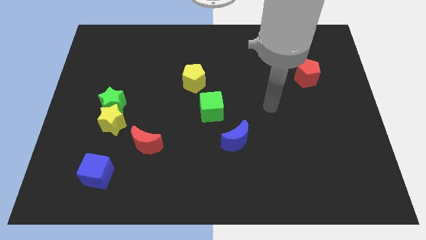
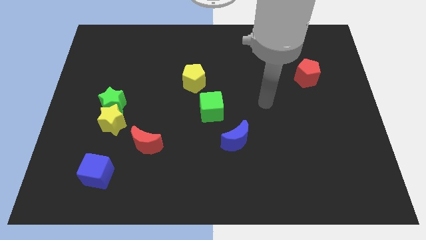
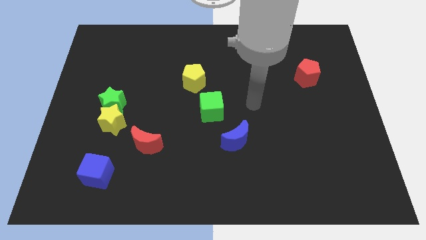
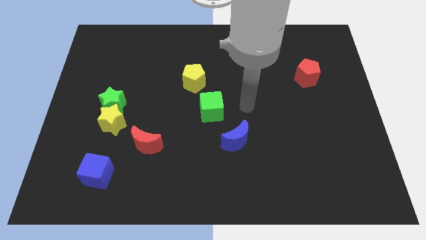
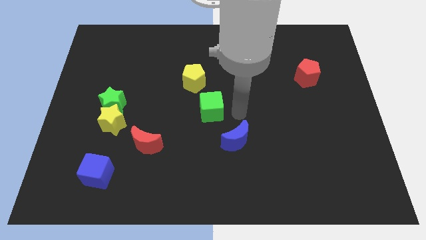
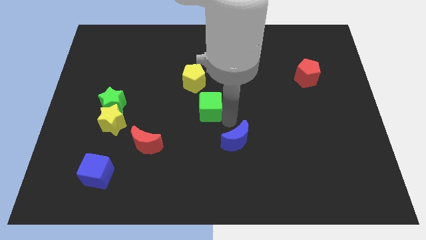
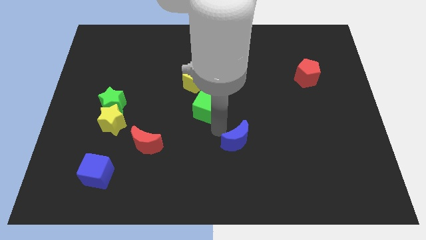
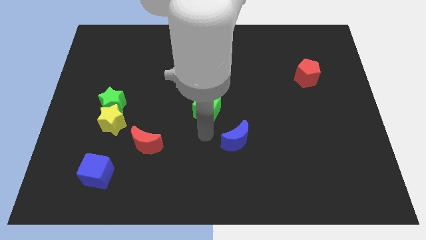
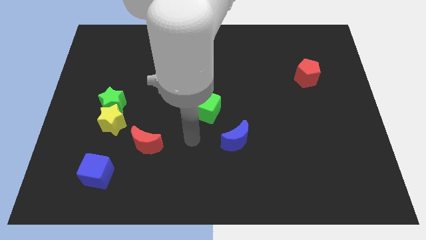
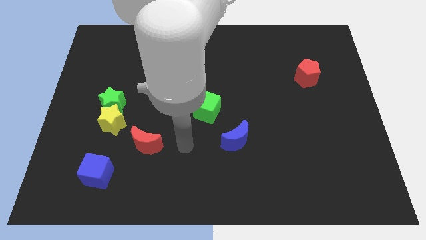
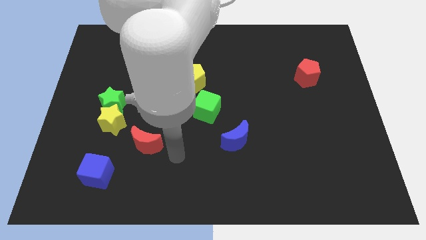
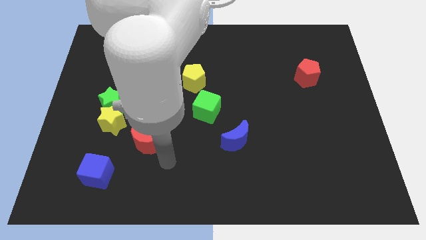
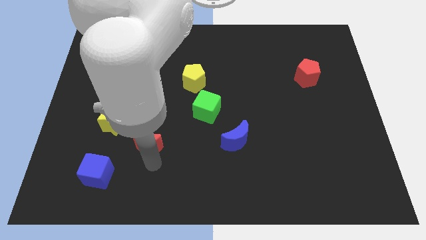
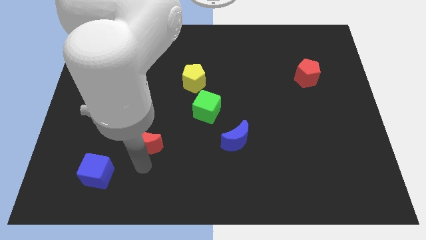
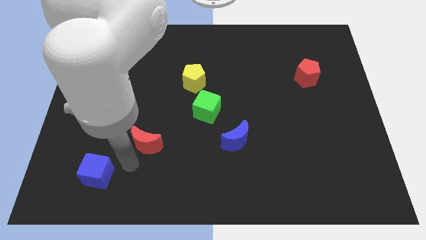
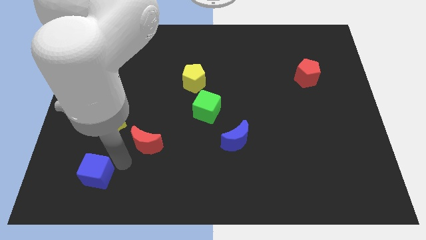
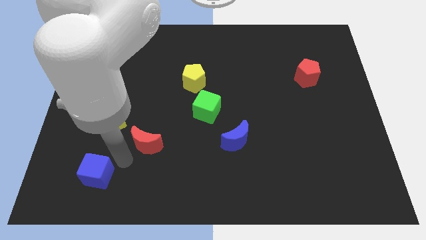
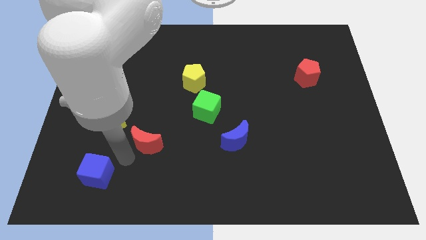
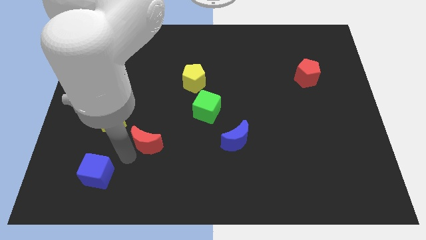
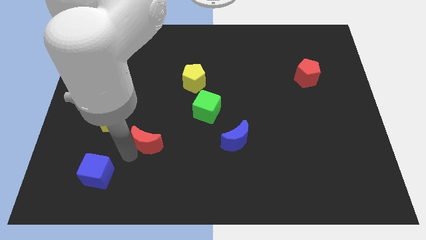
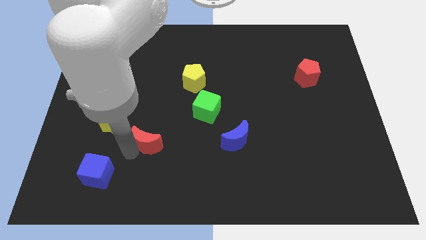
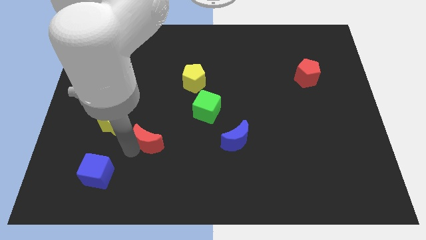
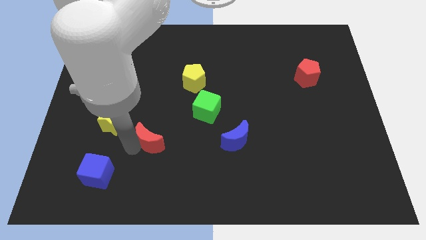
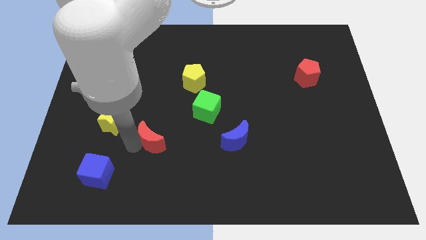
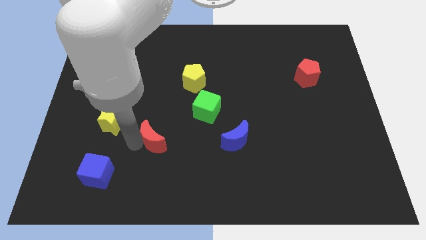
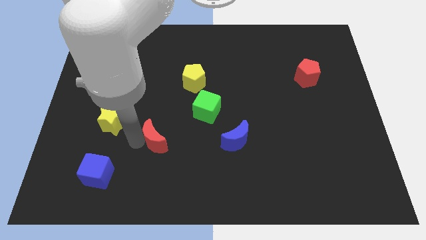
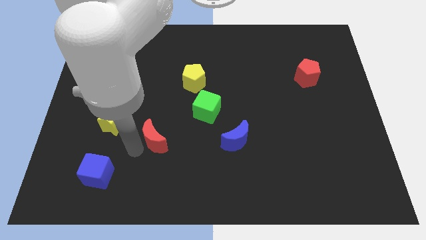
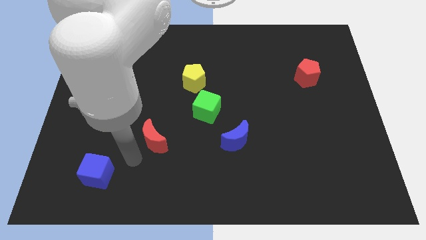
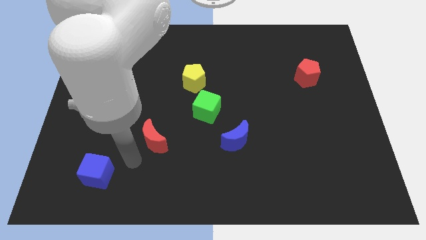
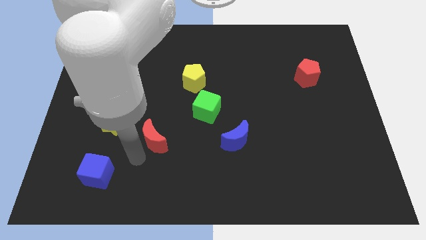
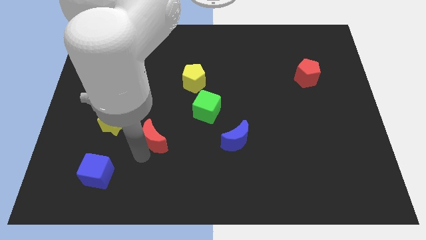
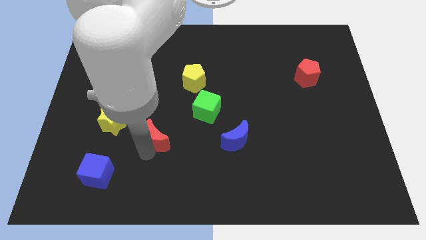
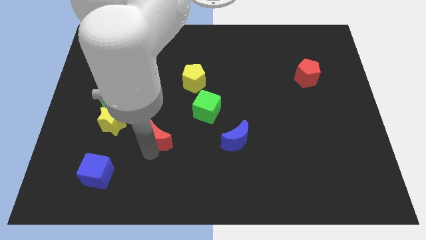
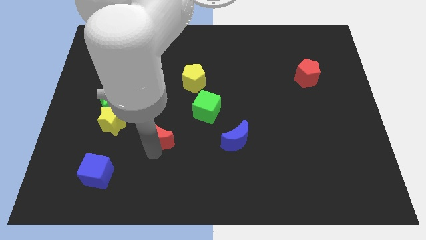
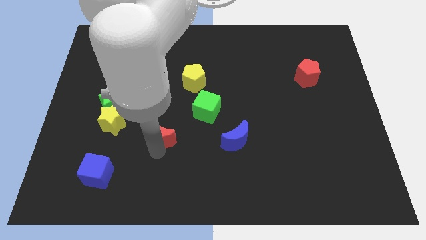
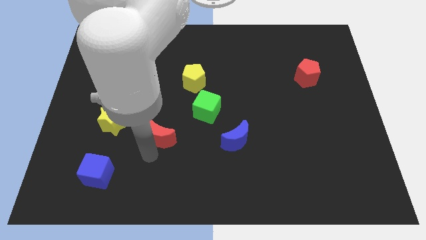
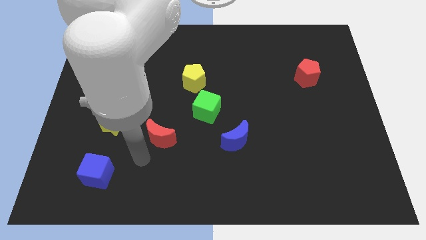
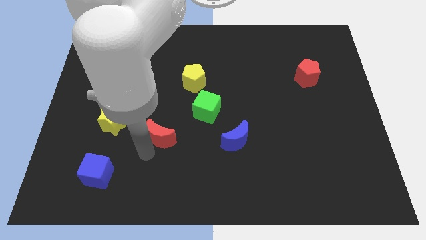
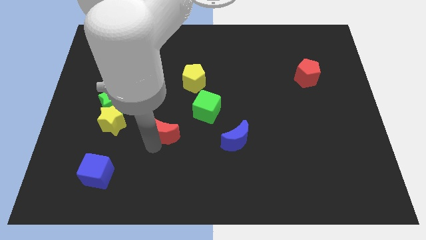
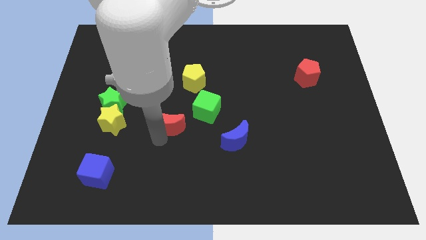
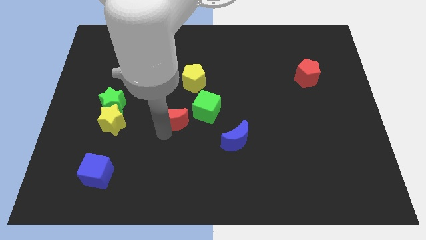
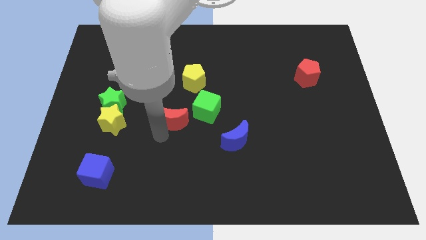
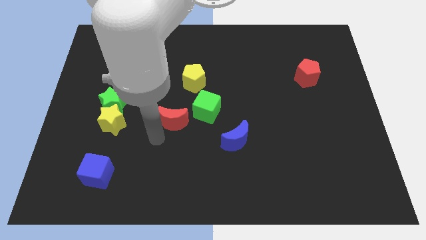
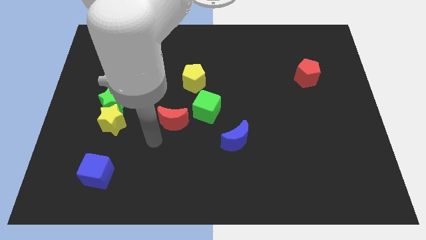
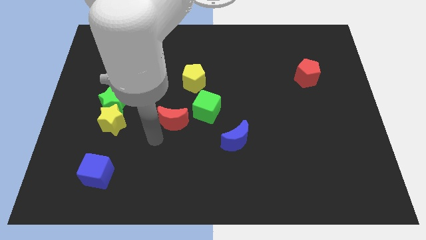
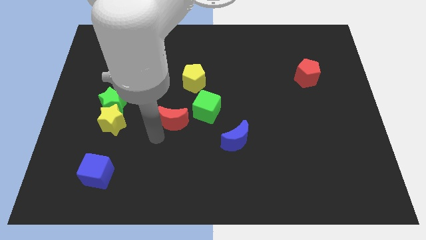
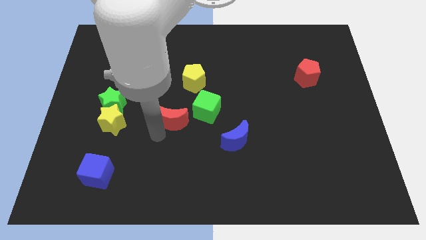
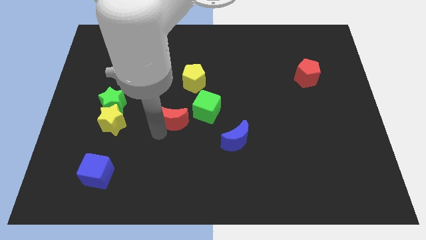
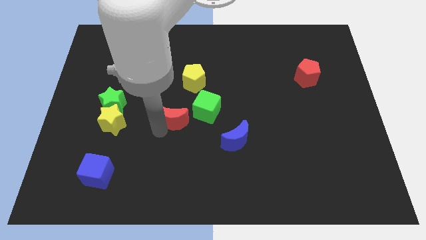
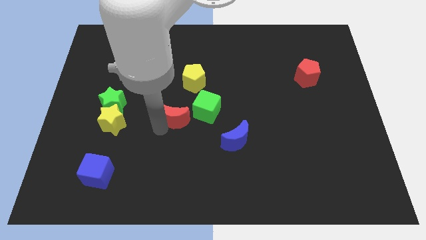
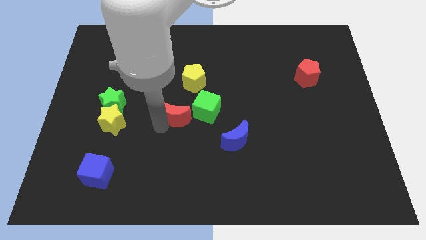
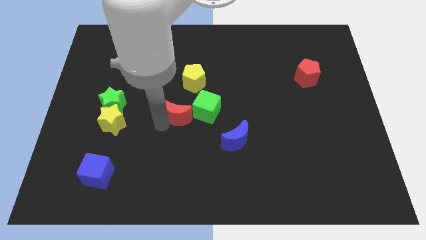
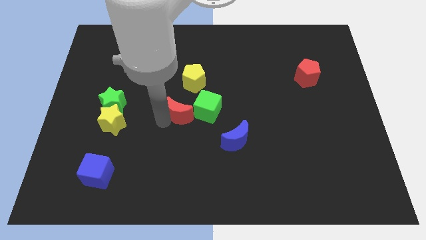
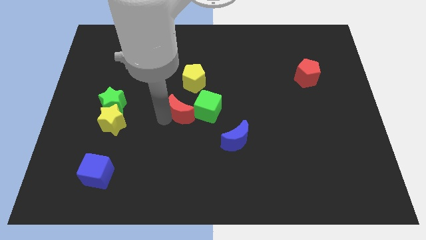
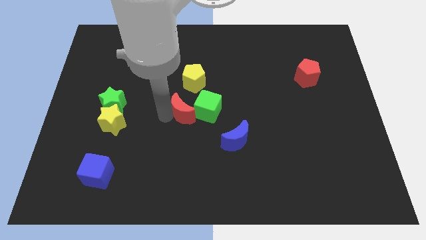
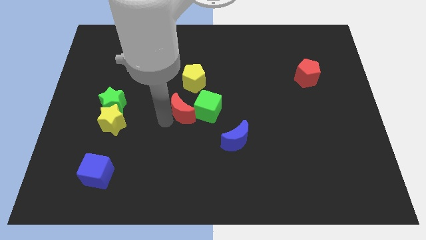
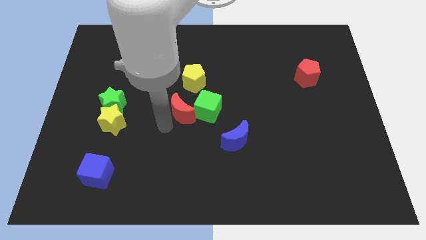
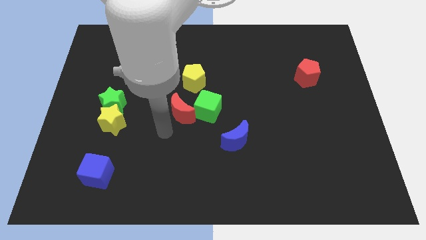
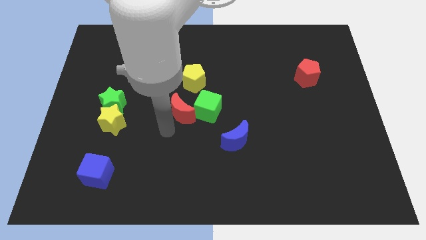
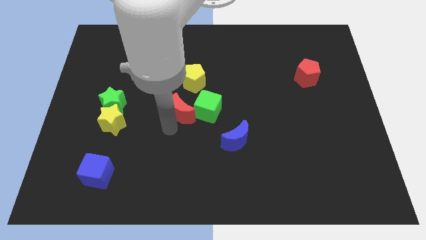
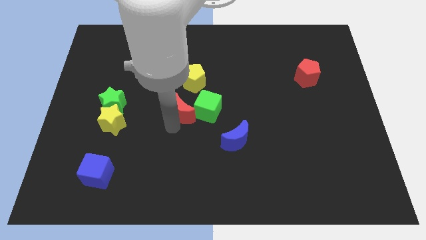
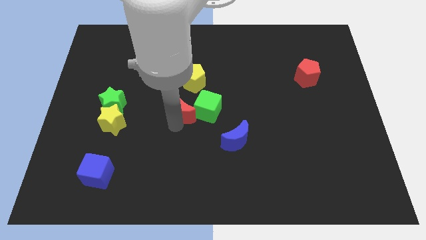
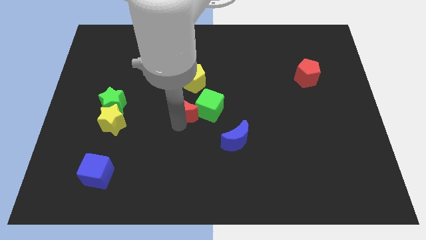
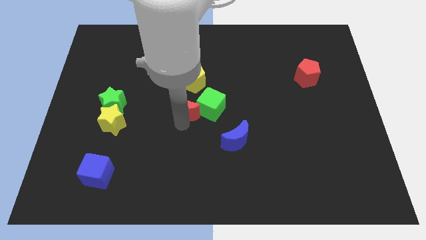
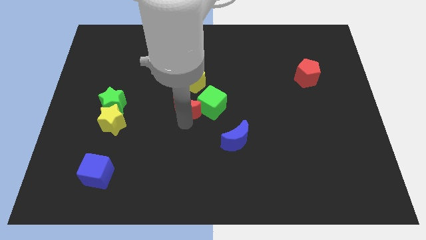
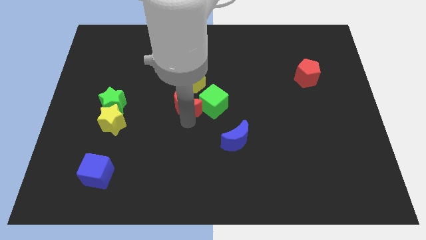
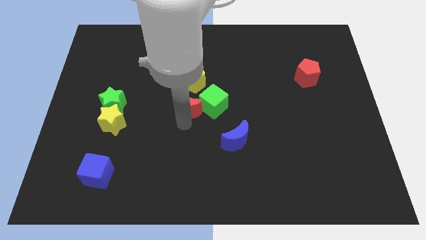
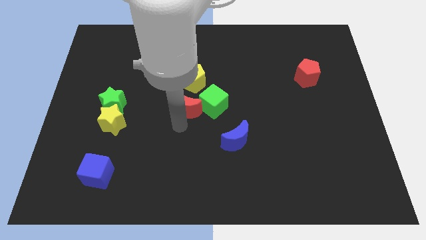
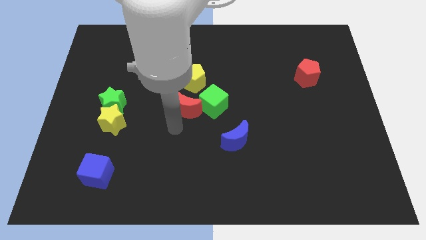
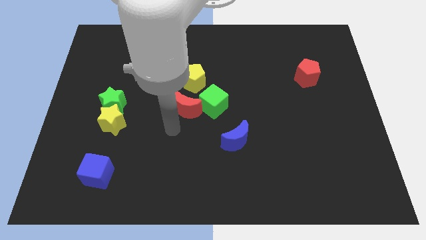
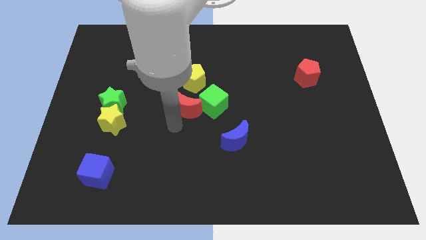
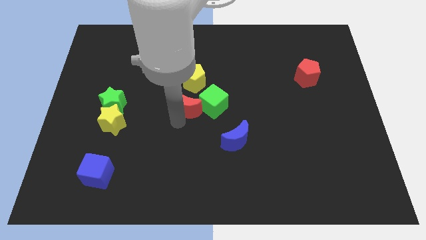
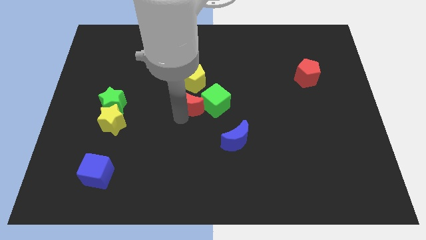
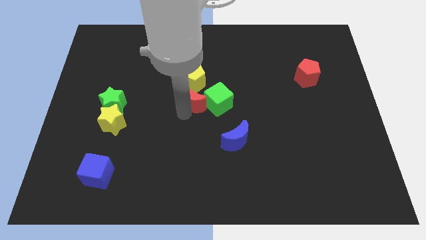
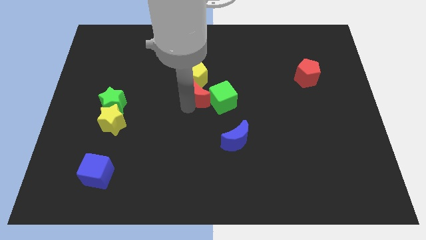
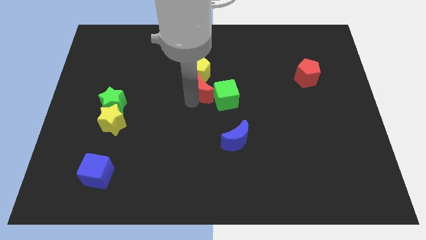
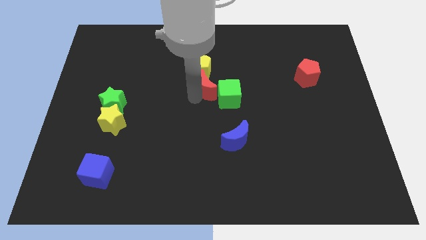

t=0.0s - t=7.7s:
move the red moon upwards and right diagonally

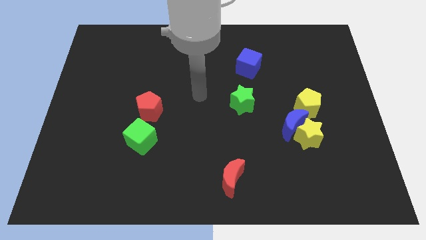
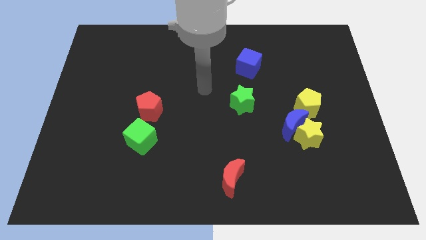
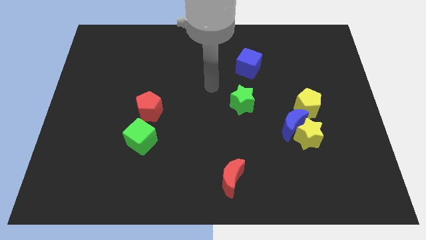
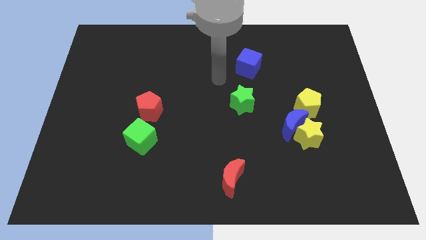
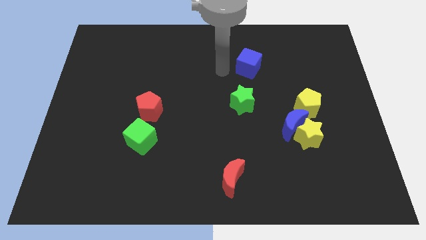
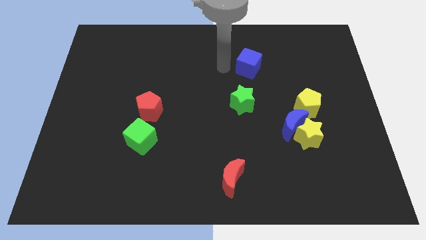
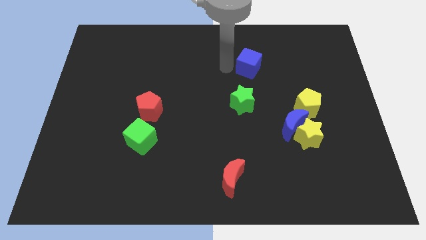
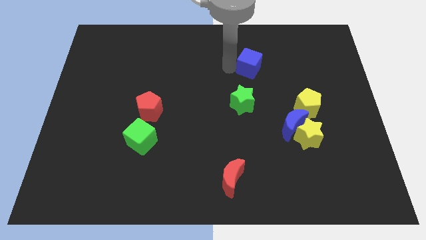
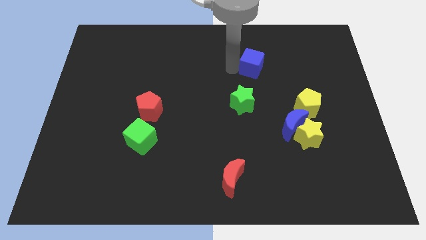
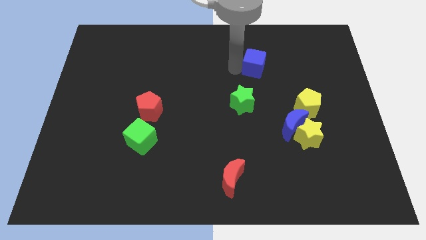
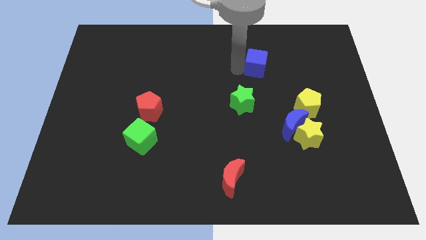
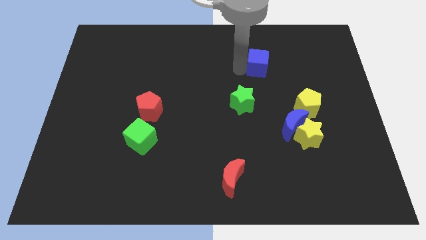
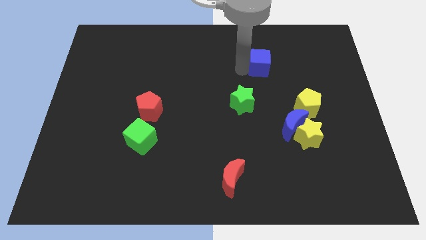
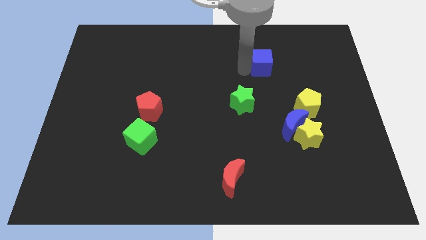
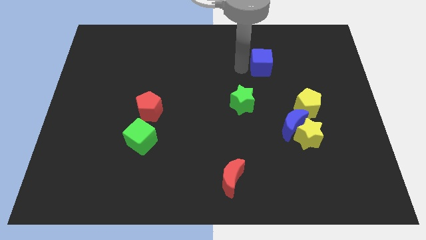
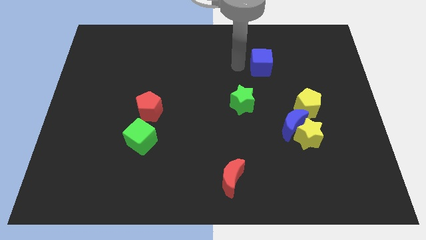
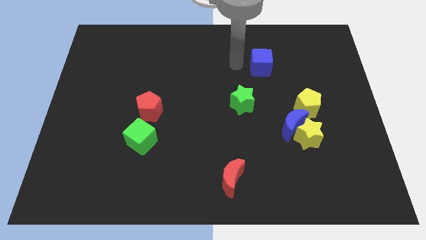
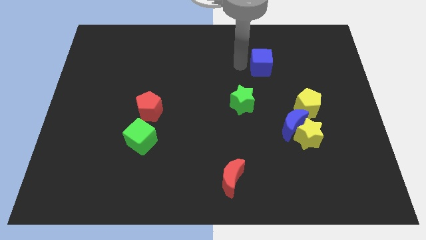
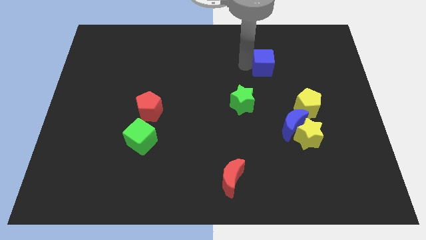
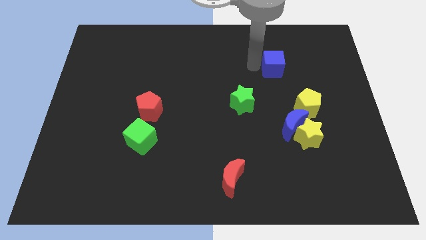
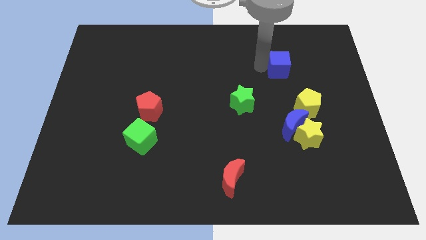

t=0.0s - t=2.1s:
slightly slide the blue cube right
